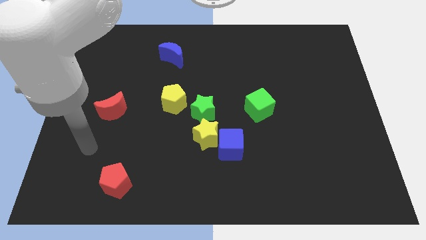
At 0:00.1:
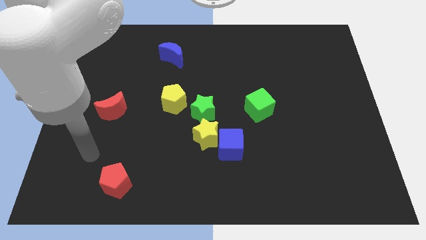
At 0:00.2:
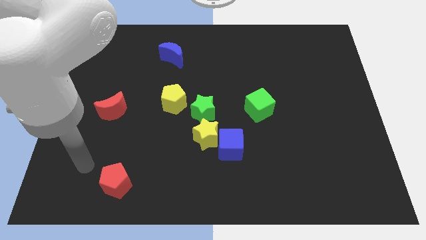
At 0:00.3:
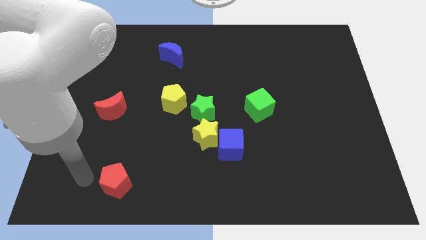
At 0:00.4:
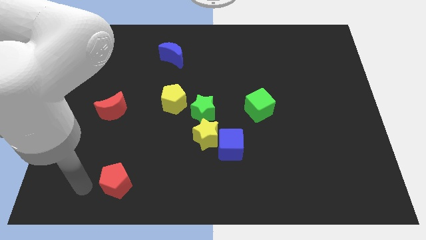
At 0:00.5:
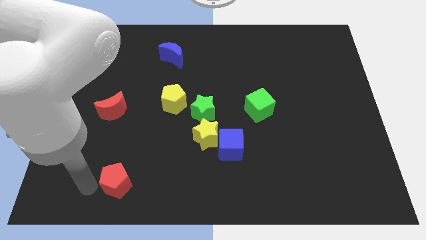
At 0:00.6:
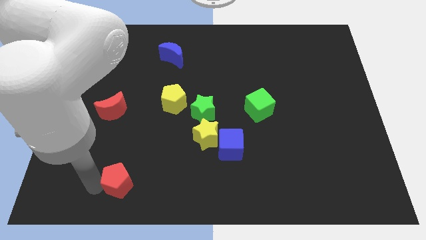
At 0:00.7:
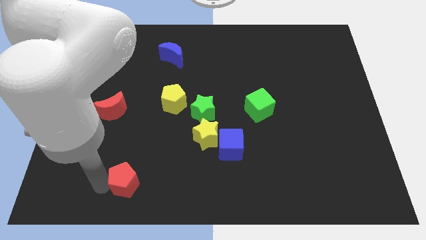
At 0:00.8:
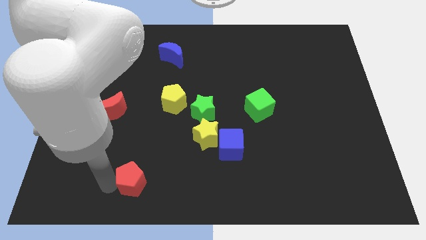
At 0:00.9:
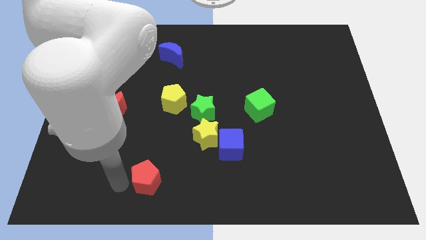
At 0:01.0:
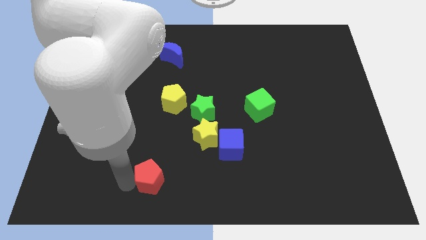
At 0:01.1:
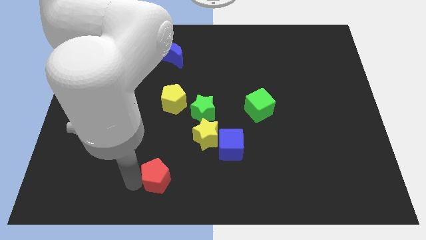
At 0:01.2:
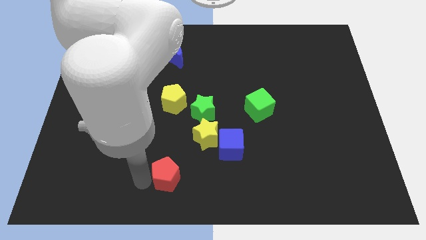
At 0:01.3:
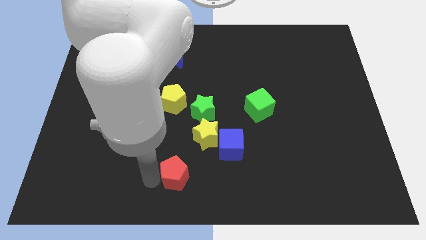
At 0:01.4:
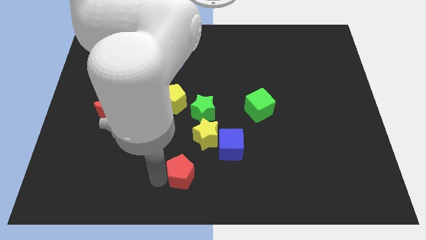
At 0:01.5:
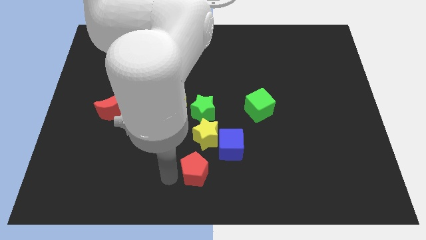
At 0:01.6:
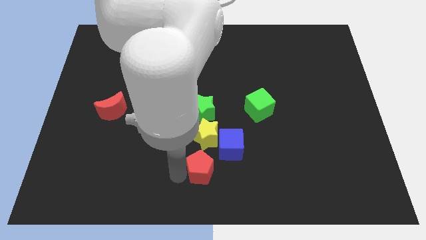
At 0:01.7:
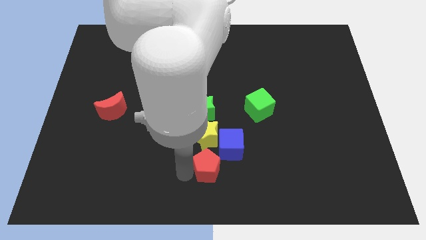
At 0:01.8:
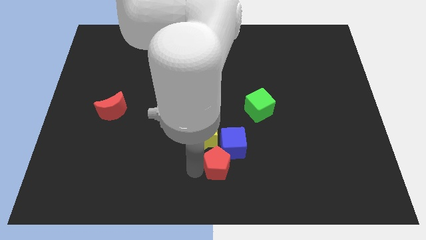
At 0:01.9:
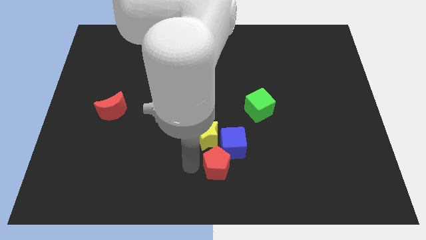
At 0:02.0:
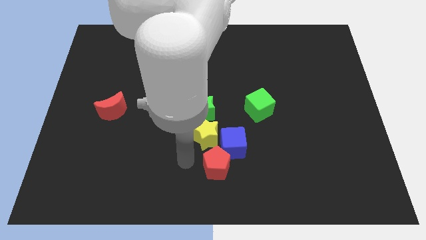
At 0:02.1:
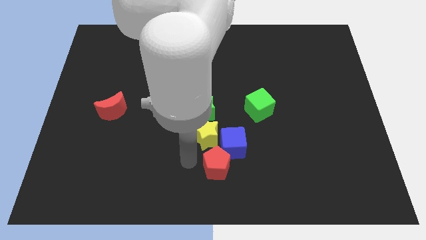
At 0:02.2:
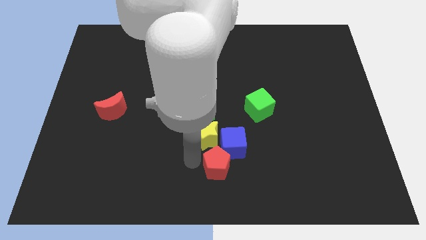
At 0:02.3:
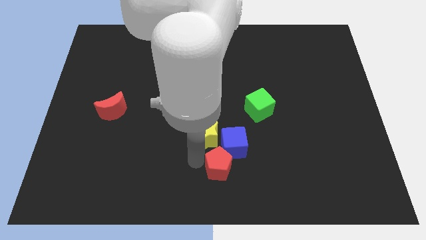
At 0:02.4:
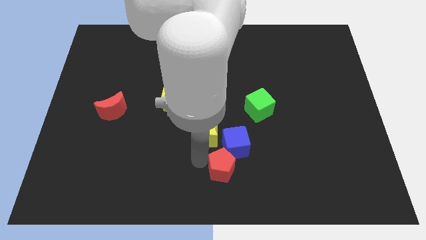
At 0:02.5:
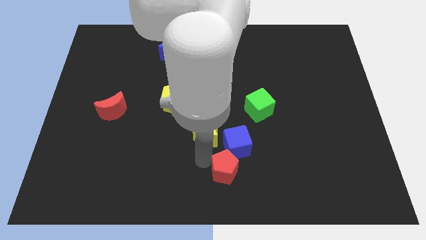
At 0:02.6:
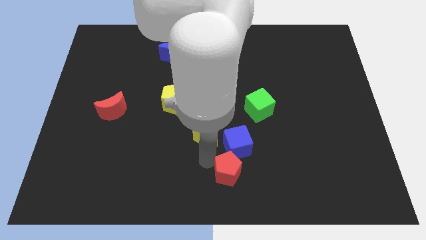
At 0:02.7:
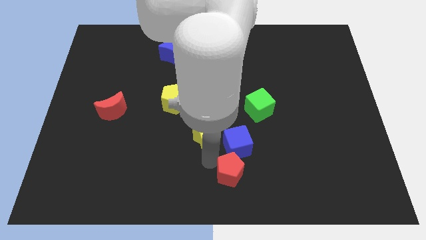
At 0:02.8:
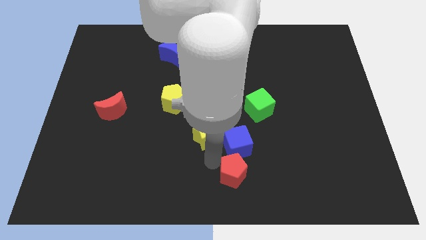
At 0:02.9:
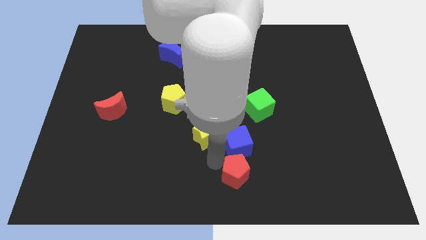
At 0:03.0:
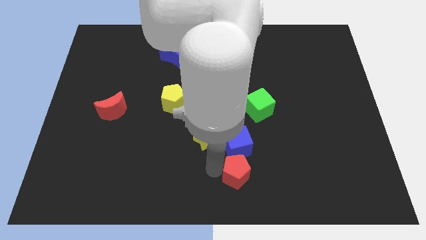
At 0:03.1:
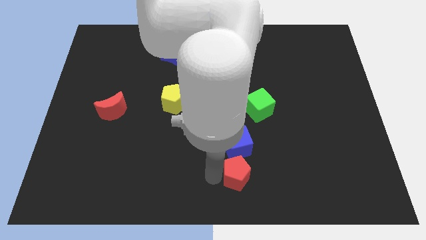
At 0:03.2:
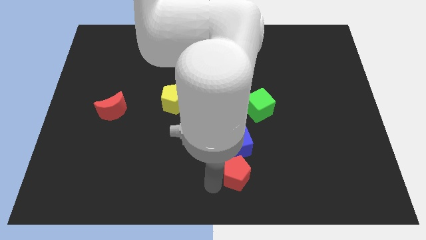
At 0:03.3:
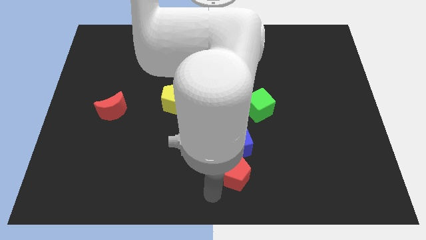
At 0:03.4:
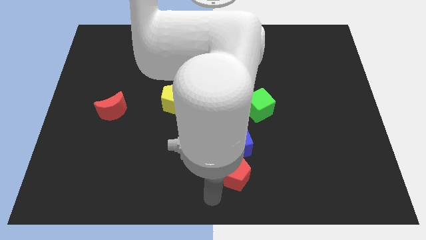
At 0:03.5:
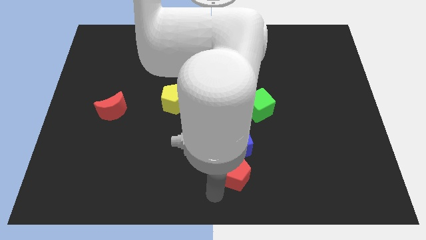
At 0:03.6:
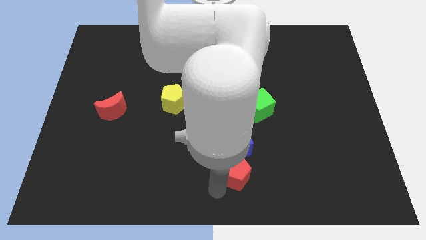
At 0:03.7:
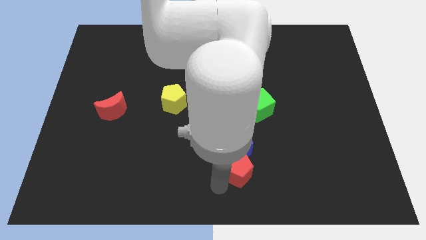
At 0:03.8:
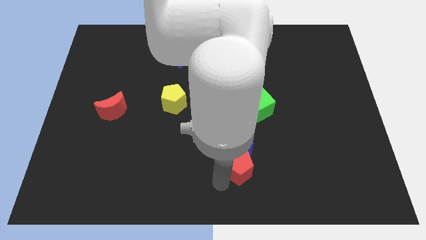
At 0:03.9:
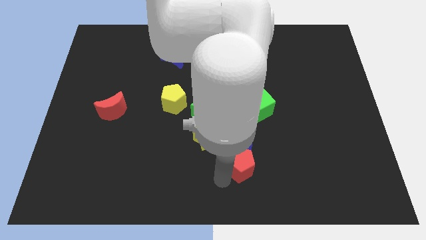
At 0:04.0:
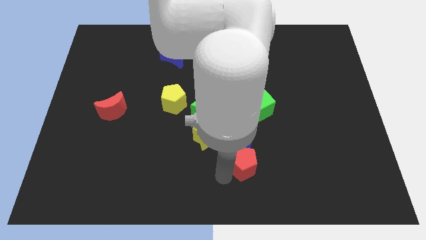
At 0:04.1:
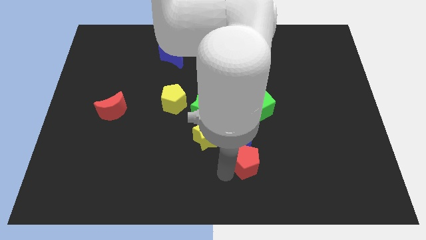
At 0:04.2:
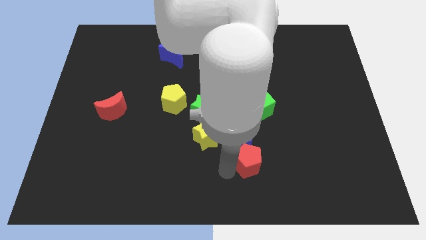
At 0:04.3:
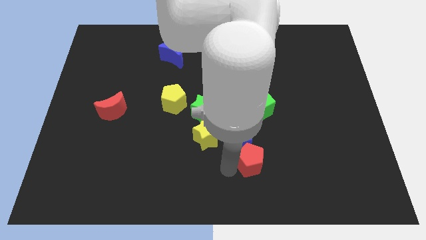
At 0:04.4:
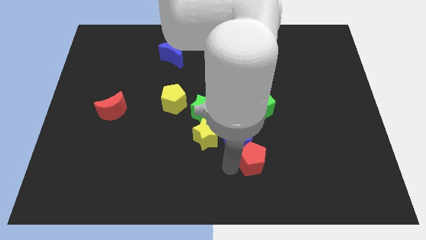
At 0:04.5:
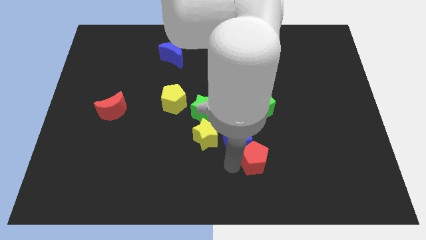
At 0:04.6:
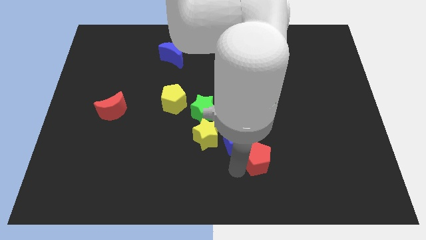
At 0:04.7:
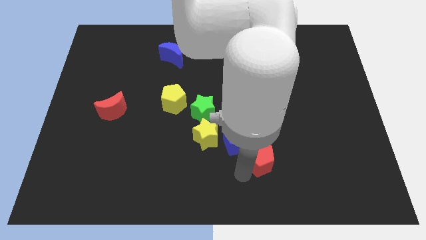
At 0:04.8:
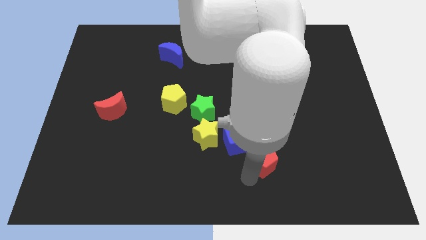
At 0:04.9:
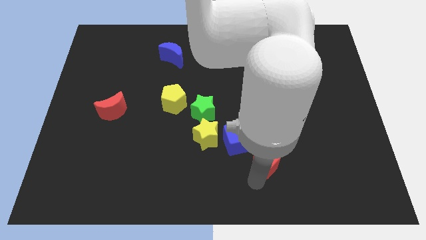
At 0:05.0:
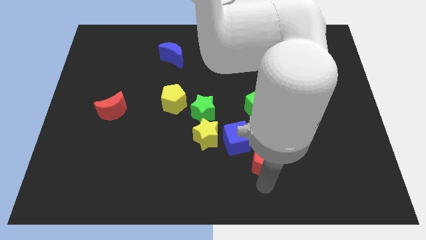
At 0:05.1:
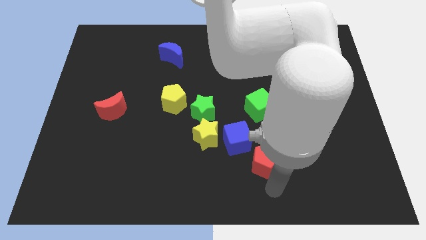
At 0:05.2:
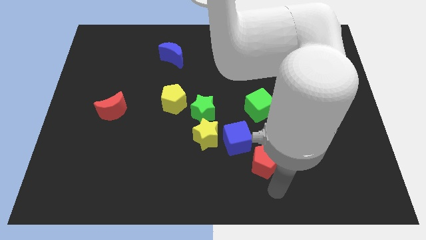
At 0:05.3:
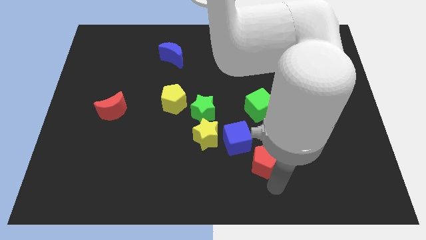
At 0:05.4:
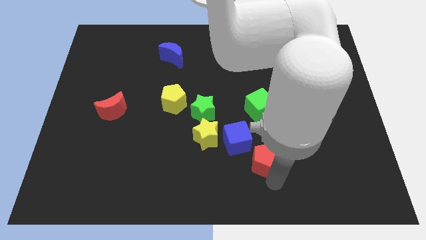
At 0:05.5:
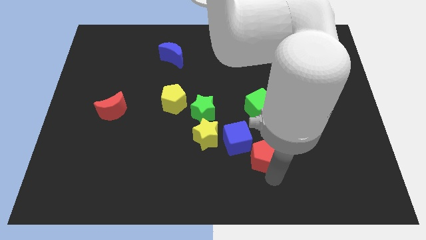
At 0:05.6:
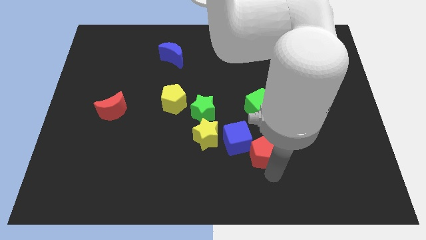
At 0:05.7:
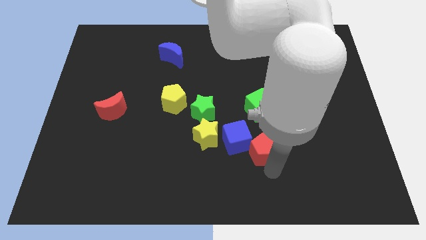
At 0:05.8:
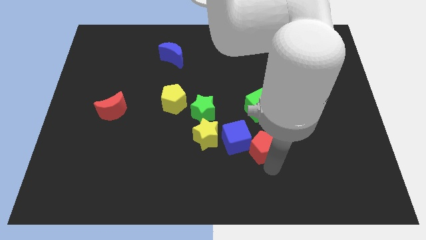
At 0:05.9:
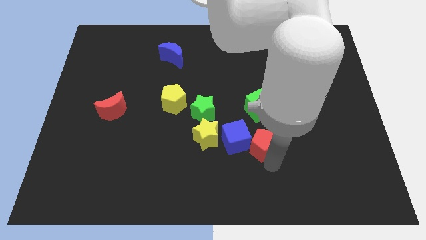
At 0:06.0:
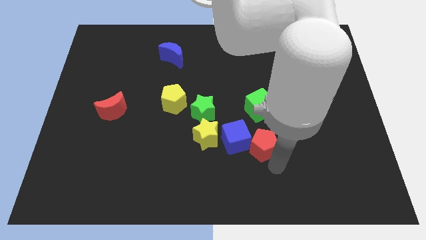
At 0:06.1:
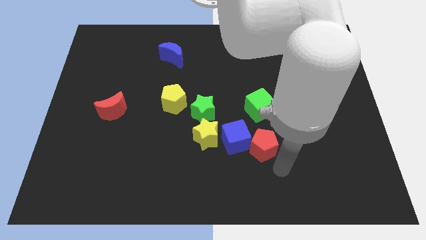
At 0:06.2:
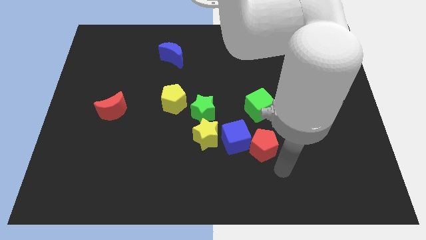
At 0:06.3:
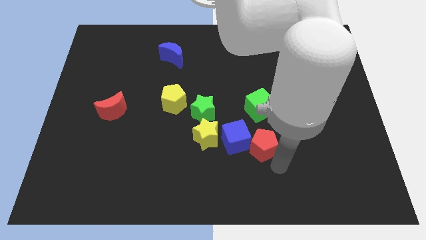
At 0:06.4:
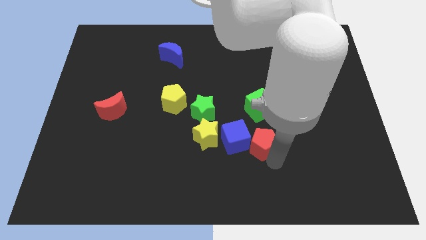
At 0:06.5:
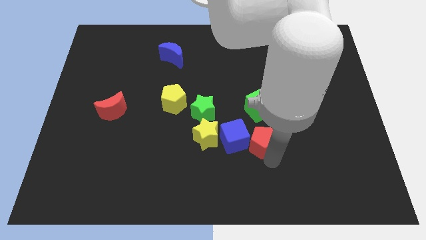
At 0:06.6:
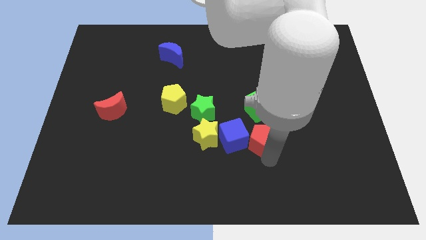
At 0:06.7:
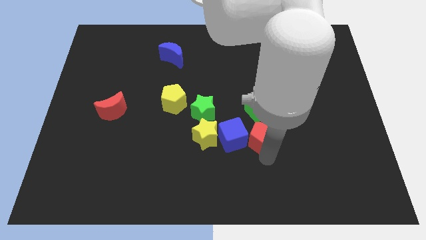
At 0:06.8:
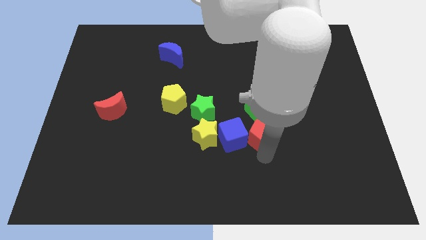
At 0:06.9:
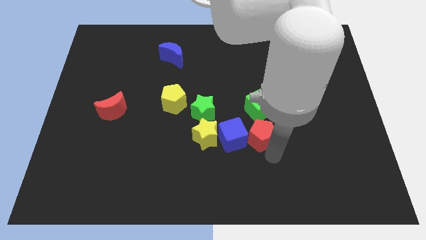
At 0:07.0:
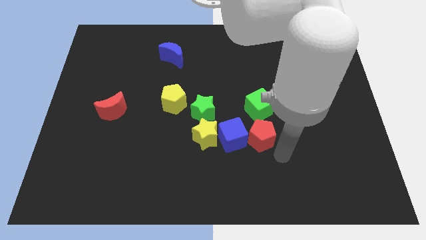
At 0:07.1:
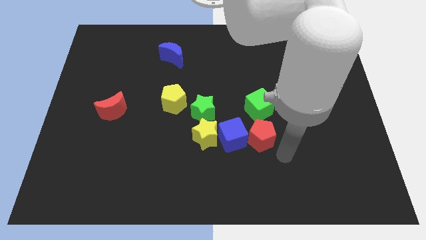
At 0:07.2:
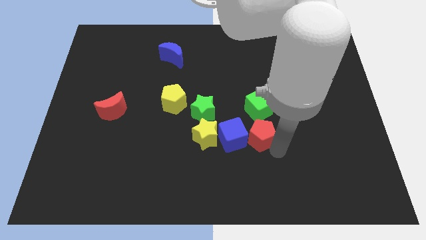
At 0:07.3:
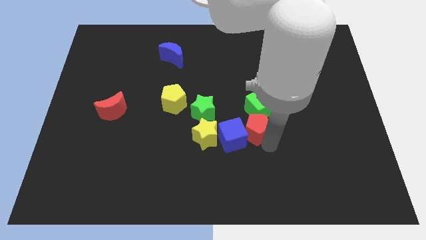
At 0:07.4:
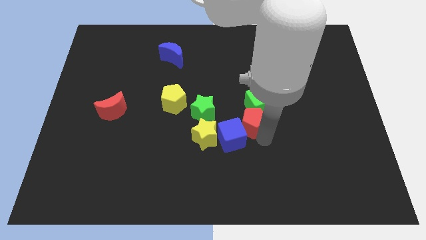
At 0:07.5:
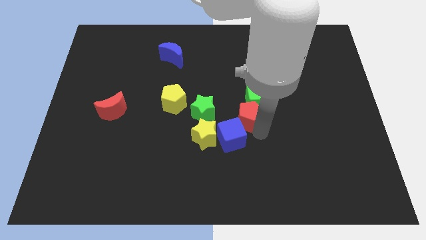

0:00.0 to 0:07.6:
move the red pentagon diagonally up and to the right of the yellow star

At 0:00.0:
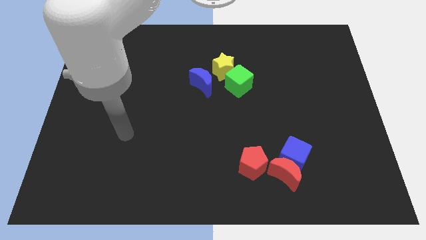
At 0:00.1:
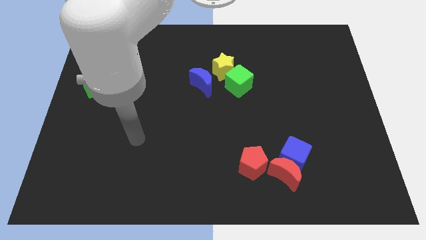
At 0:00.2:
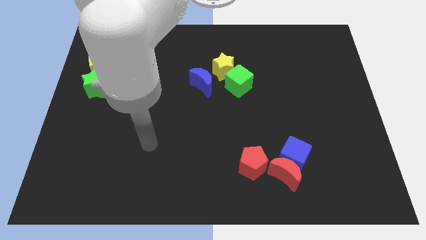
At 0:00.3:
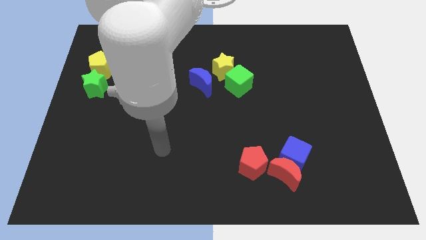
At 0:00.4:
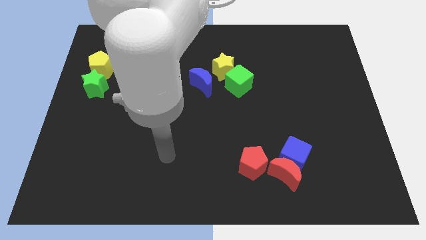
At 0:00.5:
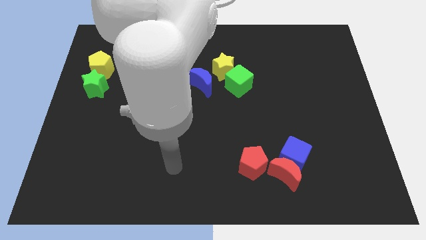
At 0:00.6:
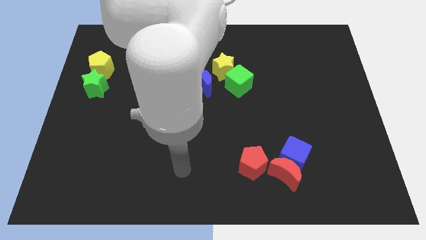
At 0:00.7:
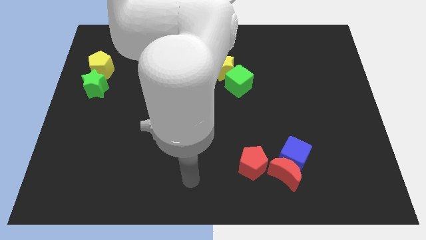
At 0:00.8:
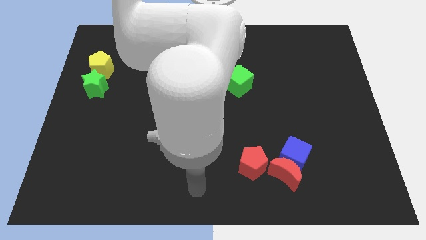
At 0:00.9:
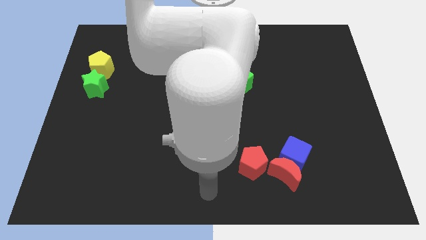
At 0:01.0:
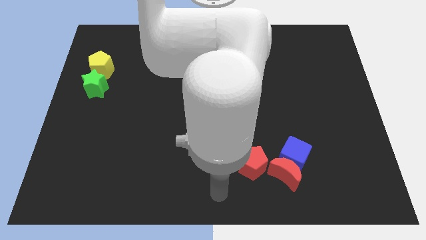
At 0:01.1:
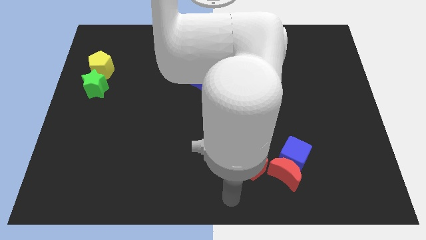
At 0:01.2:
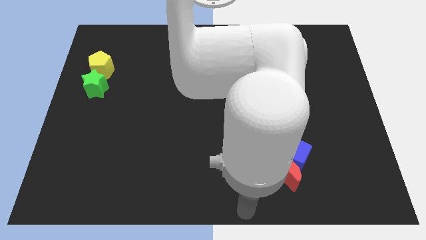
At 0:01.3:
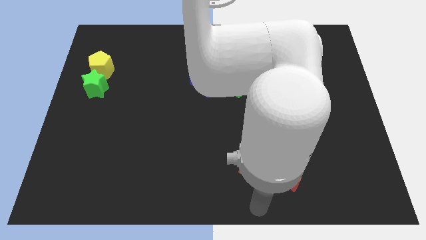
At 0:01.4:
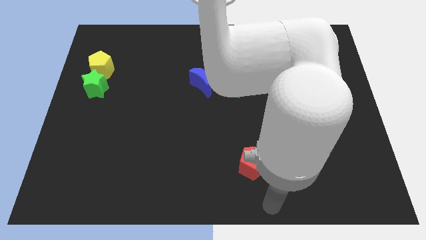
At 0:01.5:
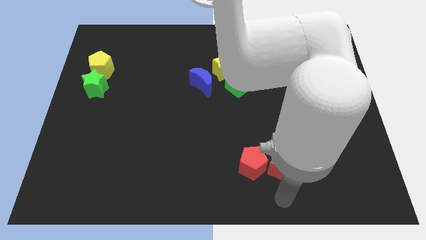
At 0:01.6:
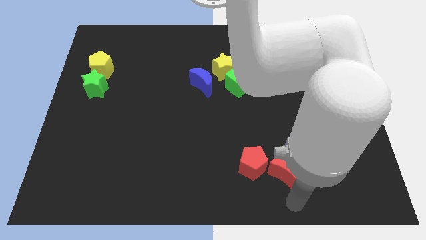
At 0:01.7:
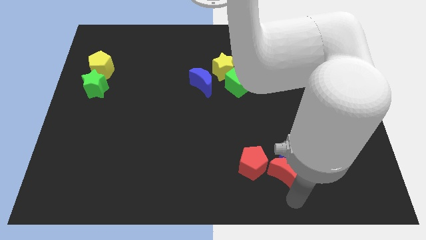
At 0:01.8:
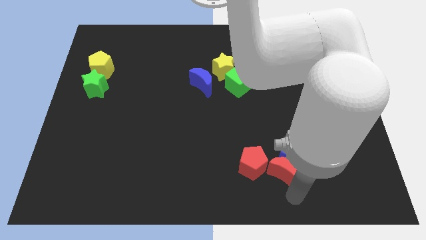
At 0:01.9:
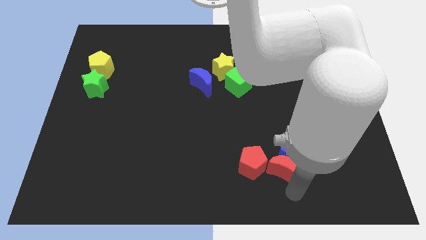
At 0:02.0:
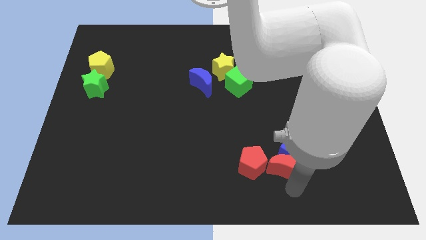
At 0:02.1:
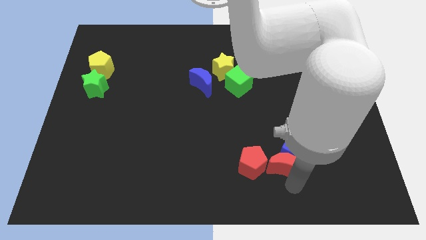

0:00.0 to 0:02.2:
move the red moon diagonally up and to the right of the red pentagon
